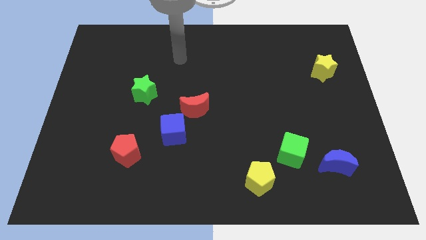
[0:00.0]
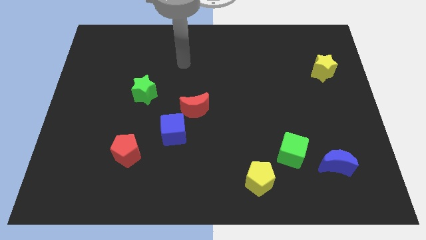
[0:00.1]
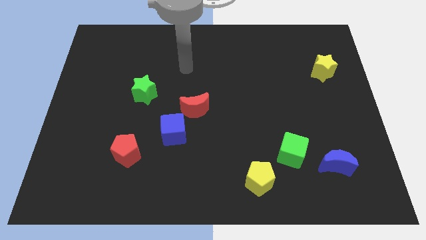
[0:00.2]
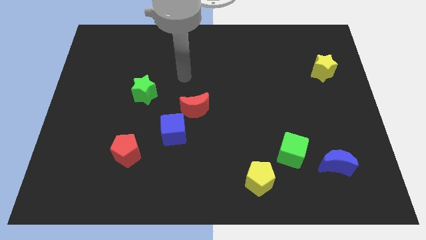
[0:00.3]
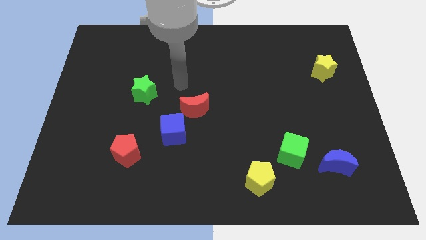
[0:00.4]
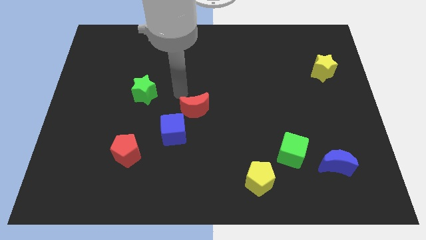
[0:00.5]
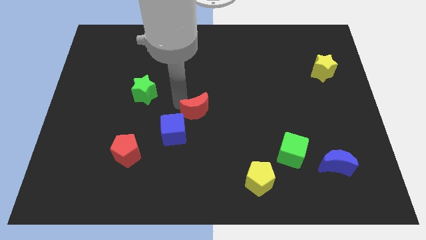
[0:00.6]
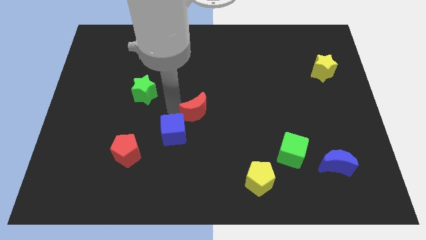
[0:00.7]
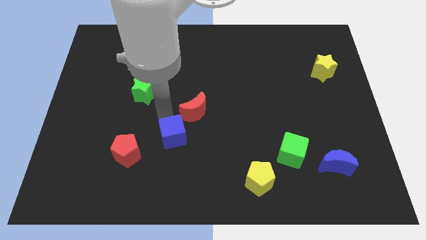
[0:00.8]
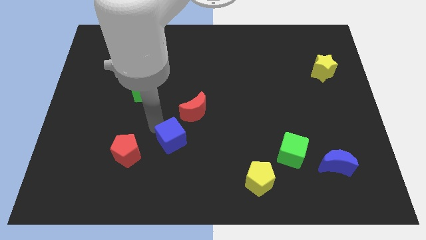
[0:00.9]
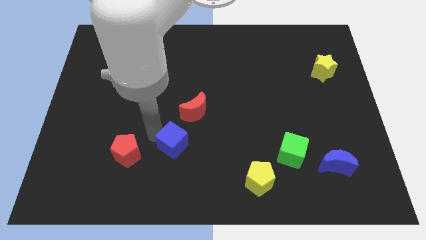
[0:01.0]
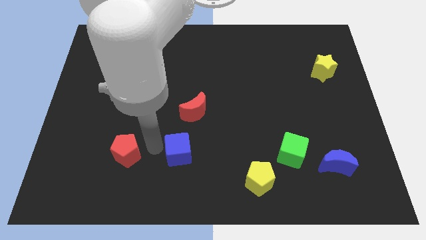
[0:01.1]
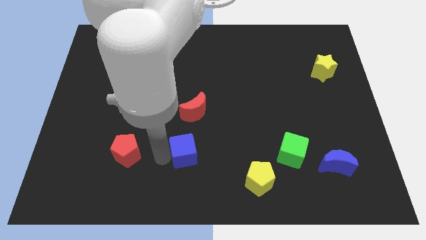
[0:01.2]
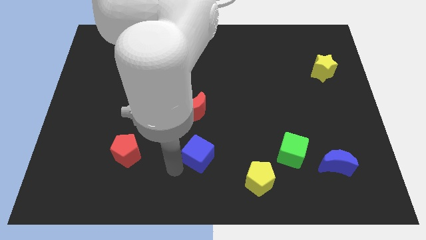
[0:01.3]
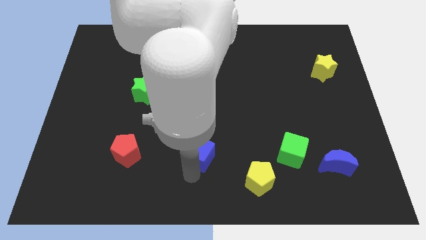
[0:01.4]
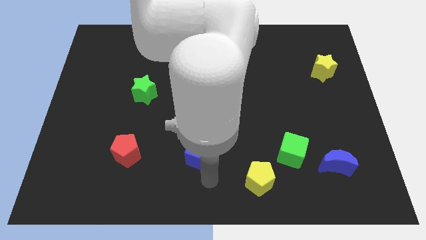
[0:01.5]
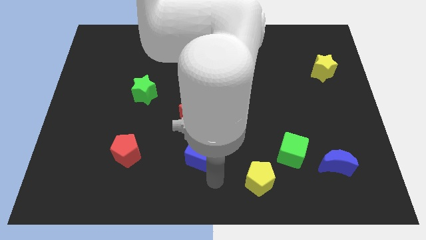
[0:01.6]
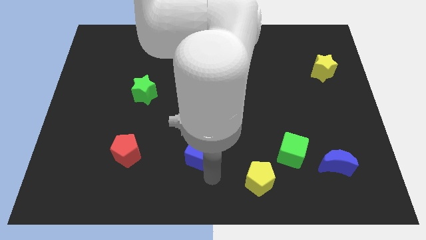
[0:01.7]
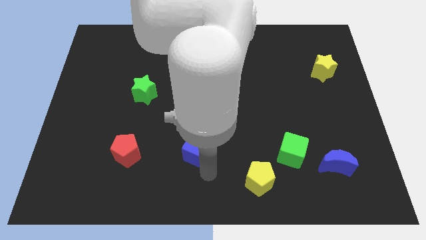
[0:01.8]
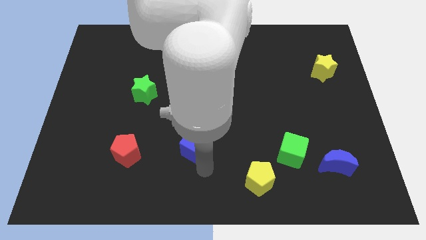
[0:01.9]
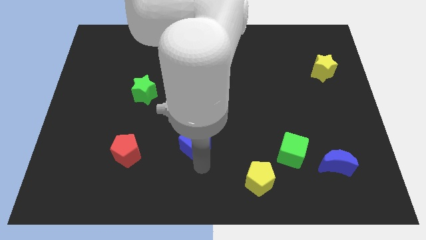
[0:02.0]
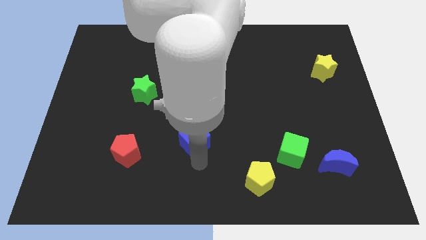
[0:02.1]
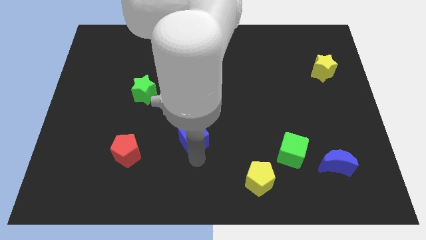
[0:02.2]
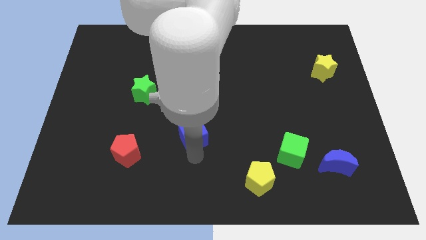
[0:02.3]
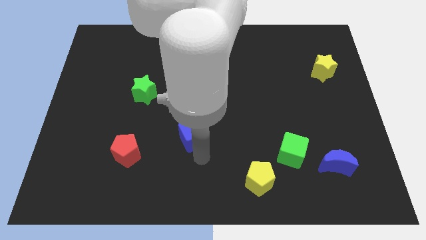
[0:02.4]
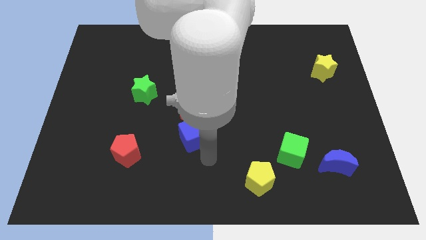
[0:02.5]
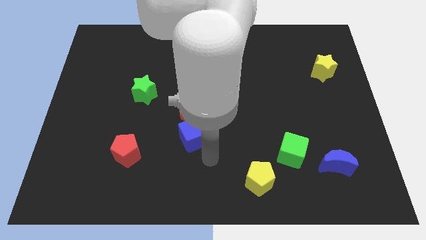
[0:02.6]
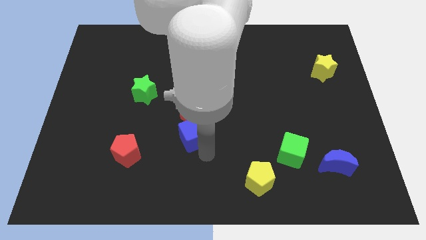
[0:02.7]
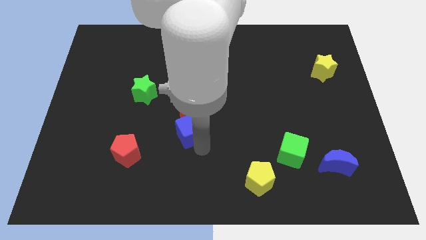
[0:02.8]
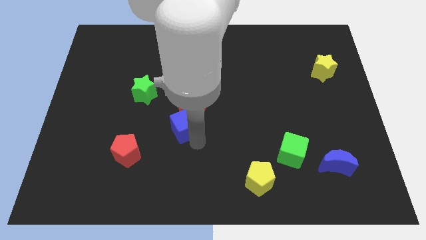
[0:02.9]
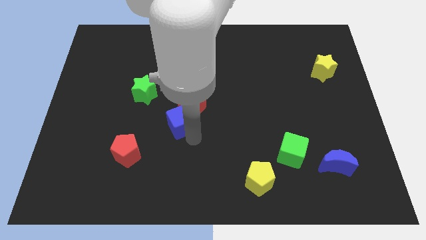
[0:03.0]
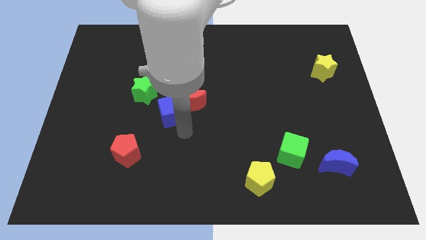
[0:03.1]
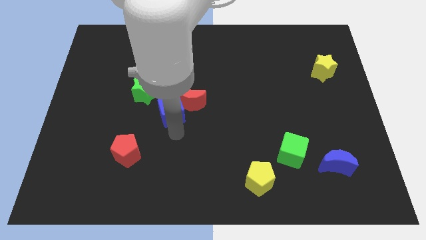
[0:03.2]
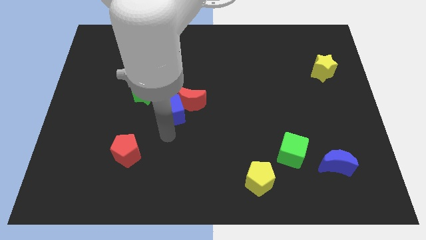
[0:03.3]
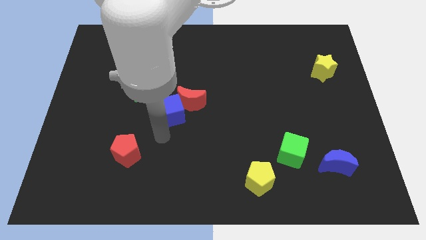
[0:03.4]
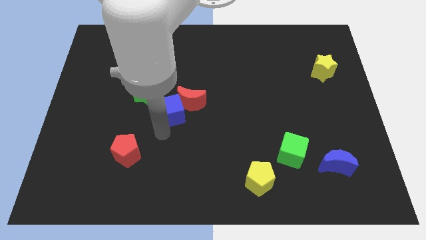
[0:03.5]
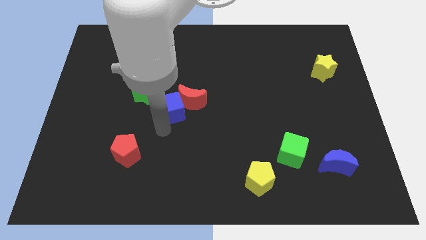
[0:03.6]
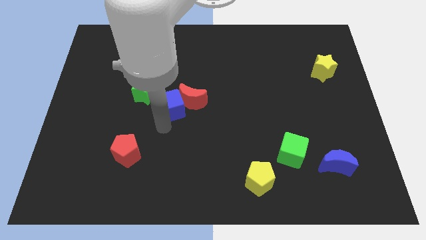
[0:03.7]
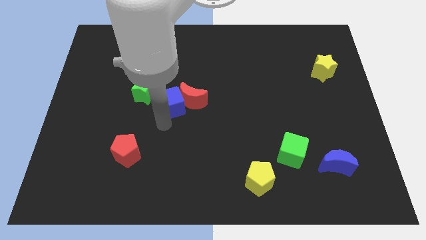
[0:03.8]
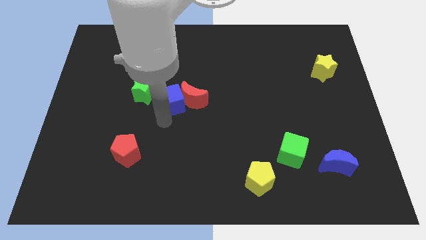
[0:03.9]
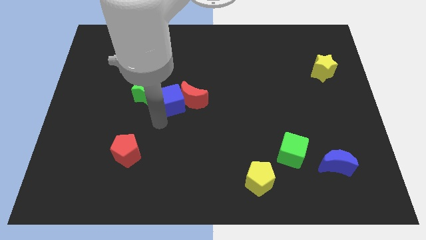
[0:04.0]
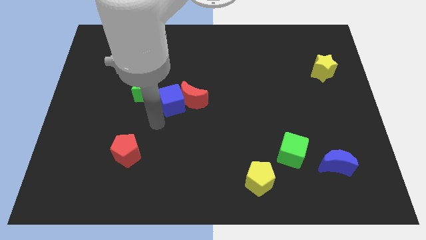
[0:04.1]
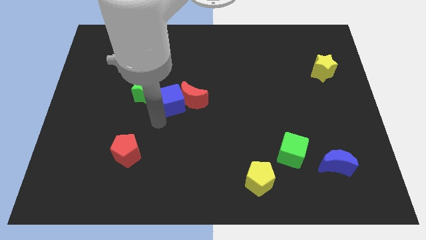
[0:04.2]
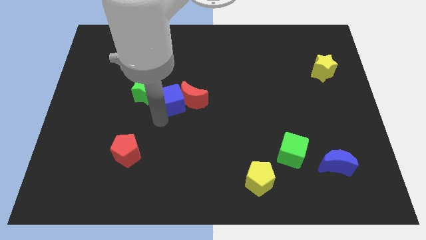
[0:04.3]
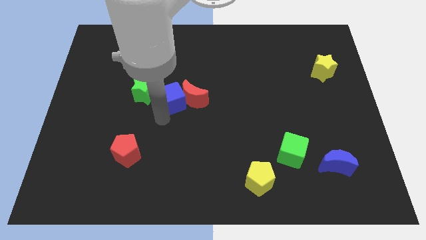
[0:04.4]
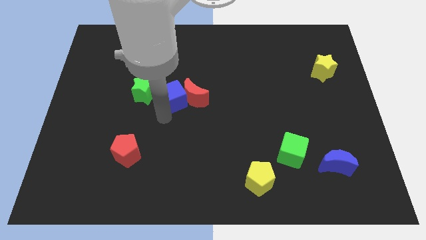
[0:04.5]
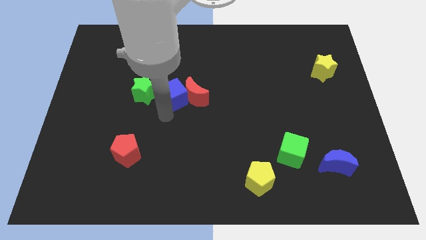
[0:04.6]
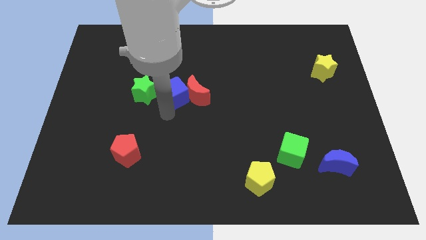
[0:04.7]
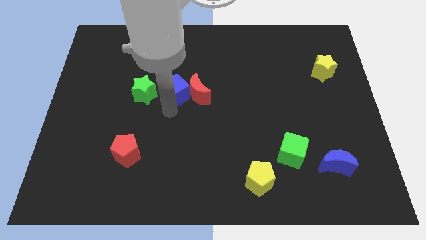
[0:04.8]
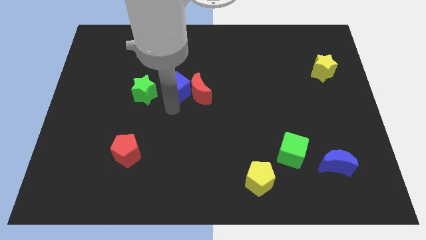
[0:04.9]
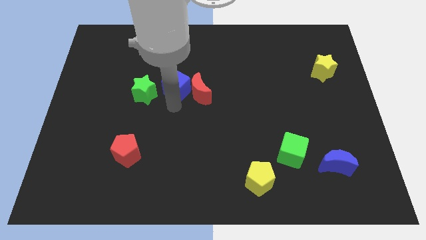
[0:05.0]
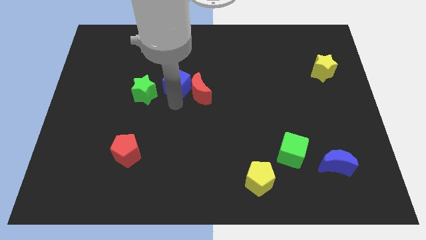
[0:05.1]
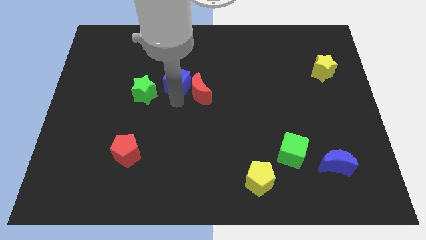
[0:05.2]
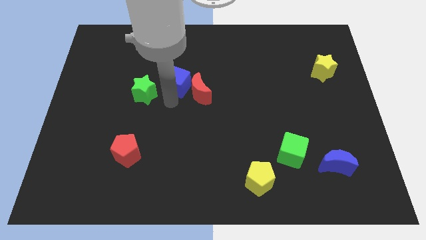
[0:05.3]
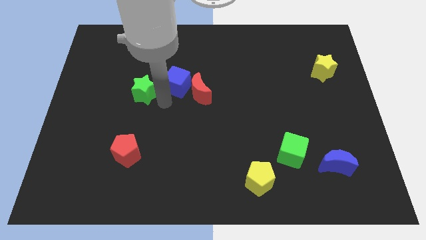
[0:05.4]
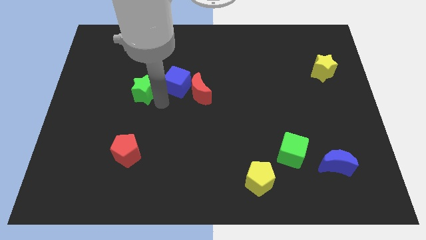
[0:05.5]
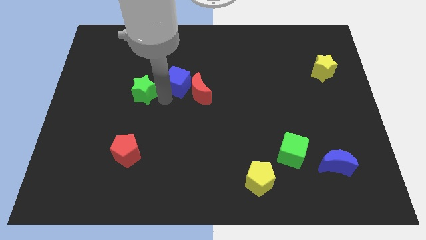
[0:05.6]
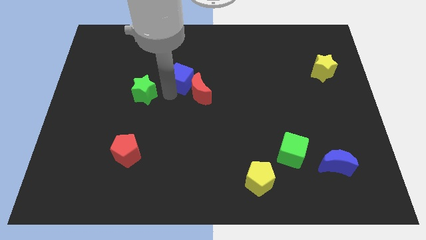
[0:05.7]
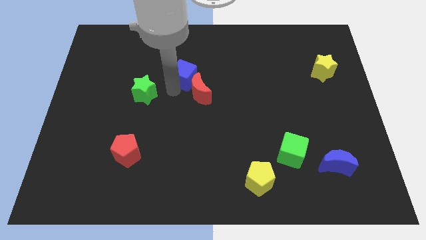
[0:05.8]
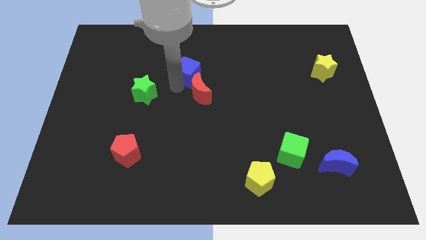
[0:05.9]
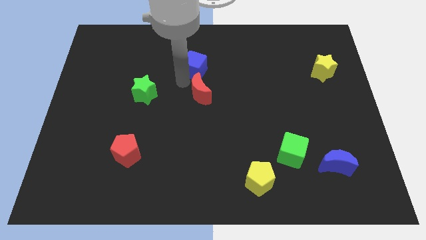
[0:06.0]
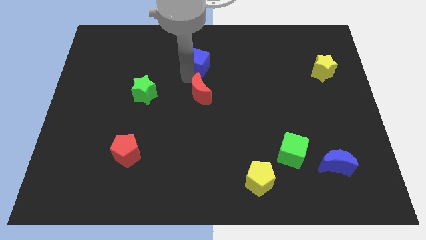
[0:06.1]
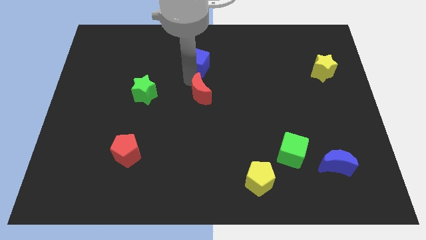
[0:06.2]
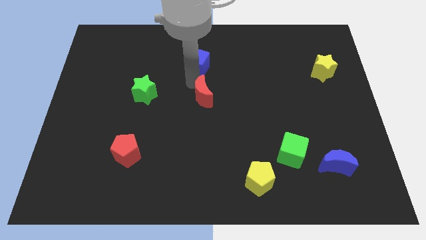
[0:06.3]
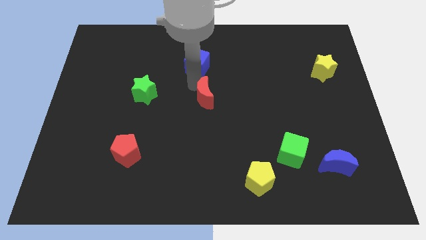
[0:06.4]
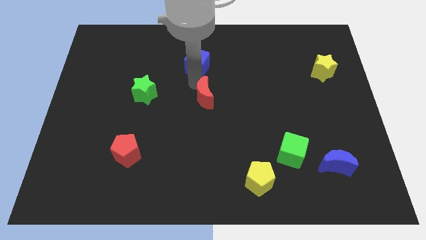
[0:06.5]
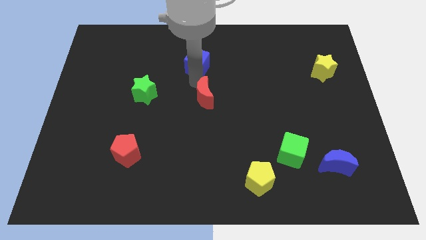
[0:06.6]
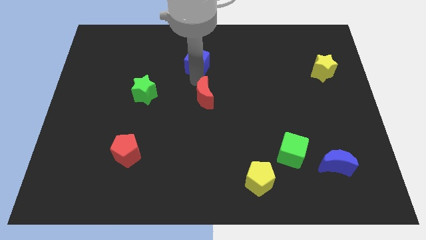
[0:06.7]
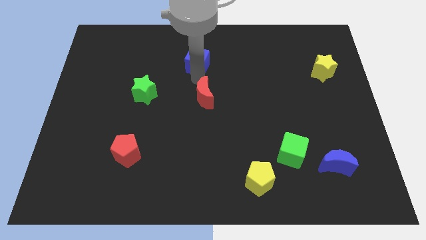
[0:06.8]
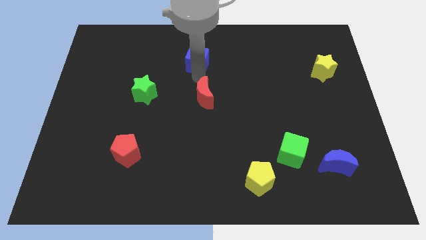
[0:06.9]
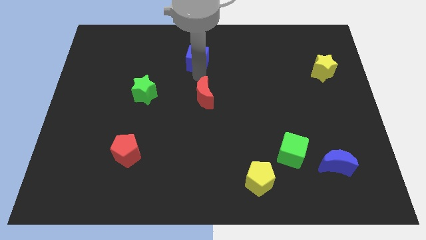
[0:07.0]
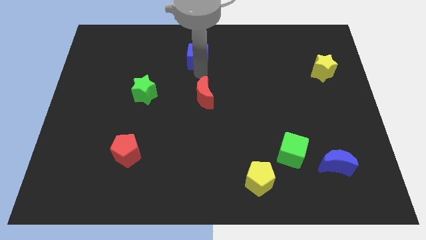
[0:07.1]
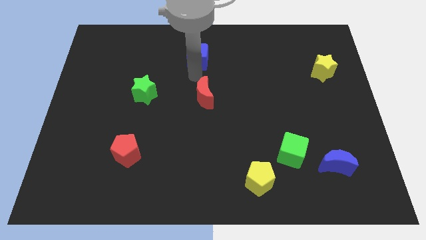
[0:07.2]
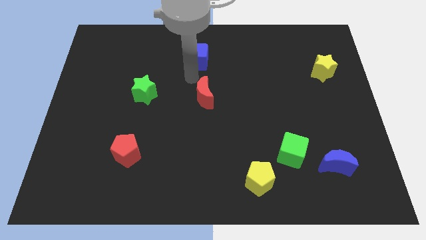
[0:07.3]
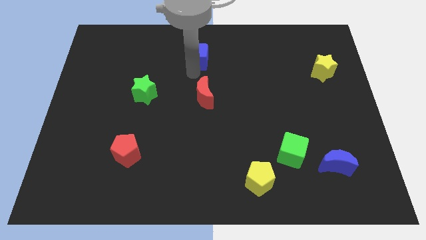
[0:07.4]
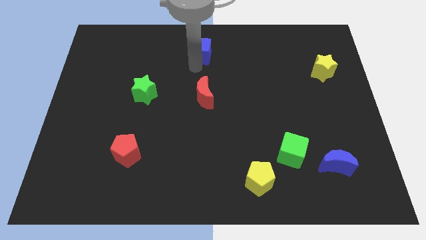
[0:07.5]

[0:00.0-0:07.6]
put the blue cube to the top side
